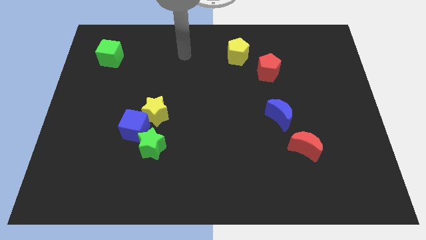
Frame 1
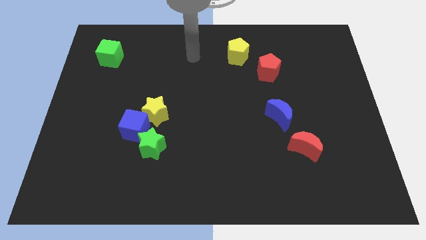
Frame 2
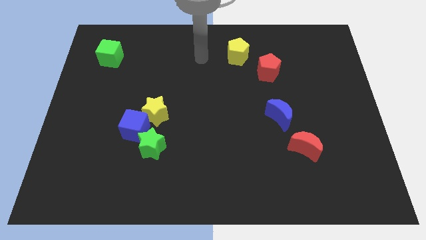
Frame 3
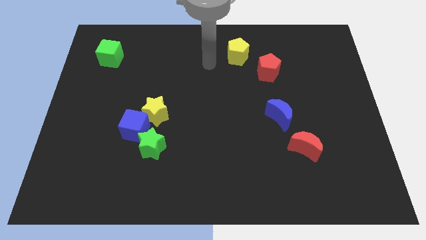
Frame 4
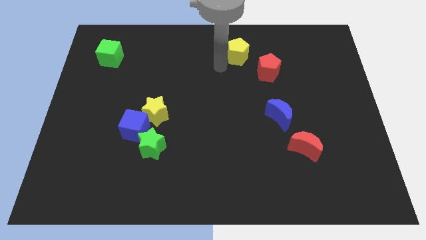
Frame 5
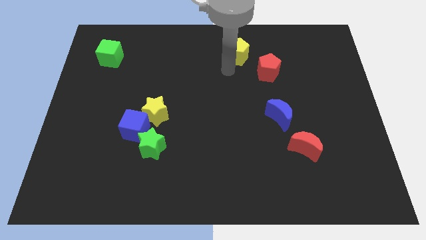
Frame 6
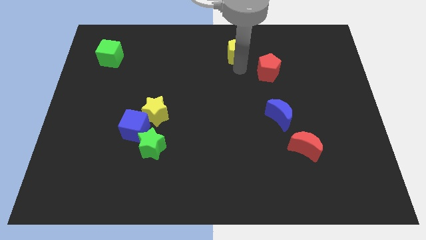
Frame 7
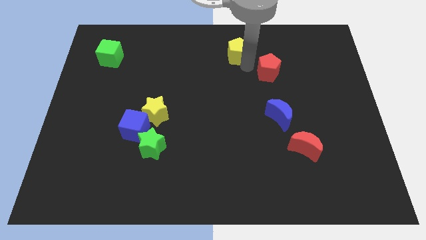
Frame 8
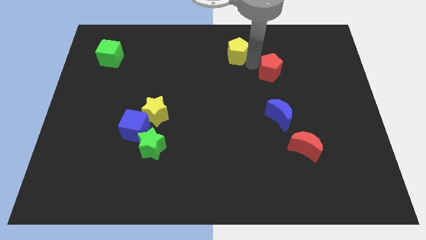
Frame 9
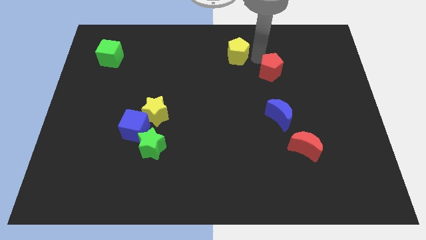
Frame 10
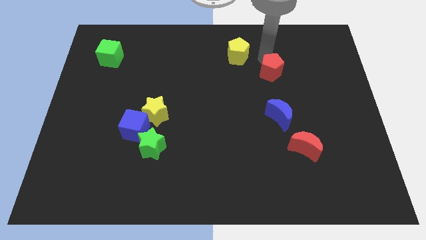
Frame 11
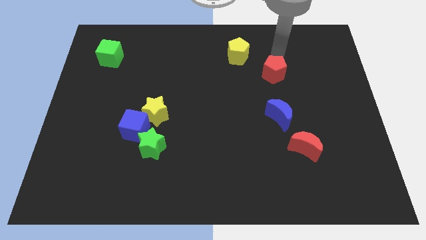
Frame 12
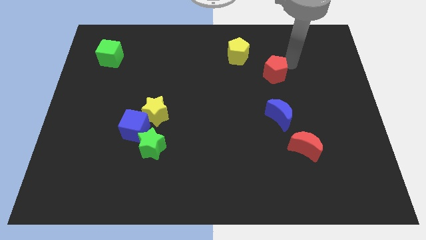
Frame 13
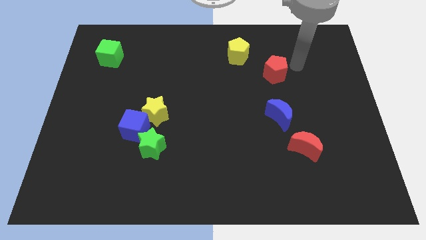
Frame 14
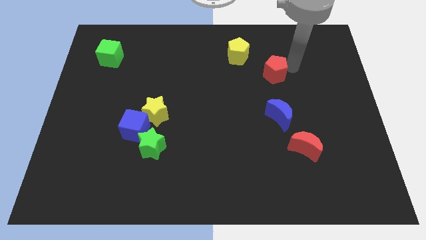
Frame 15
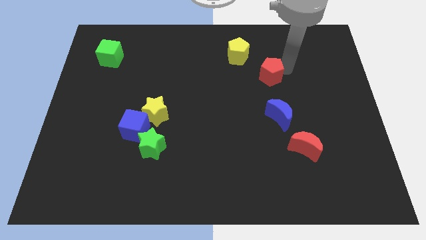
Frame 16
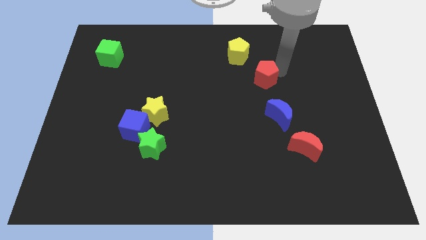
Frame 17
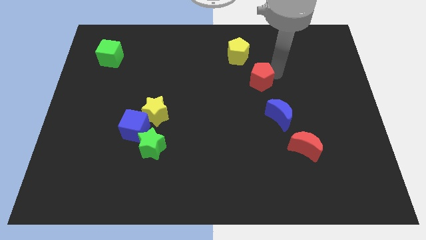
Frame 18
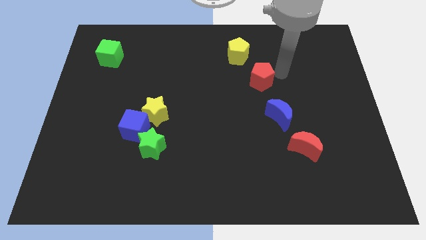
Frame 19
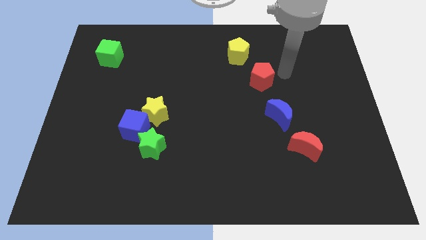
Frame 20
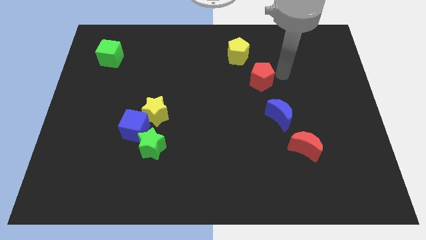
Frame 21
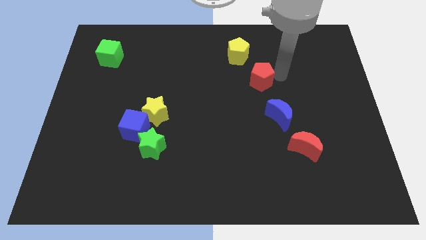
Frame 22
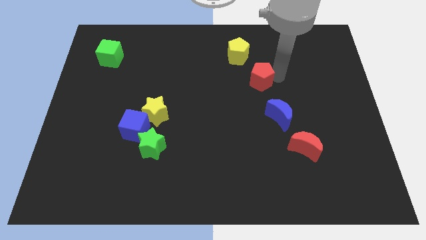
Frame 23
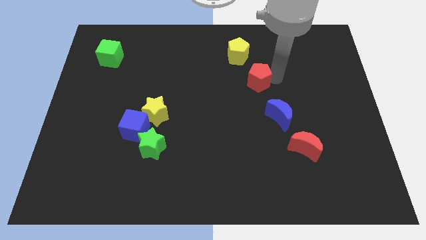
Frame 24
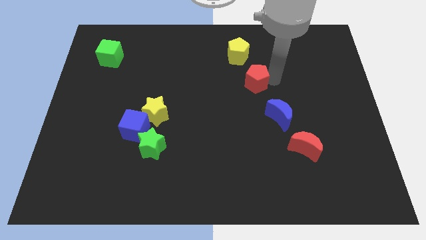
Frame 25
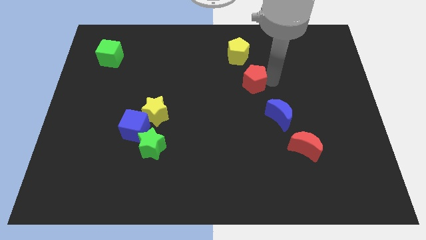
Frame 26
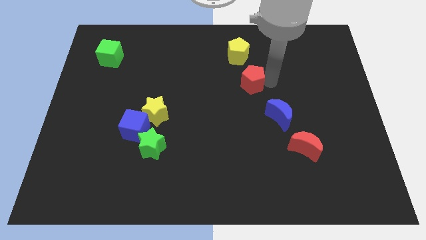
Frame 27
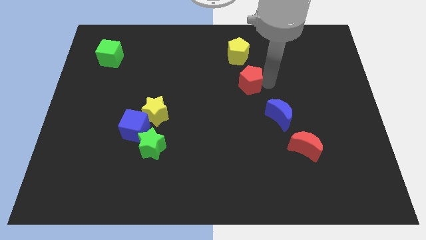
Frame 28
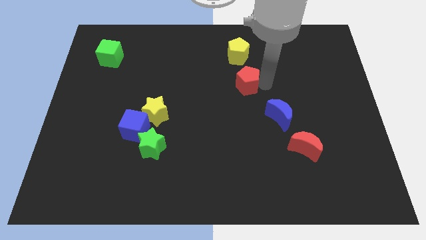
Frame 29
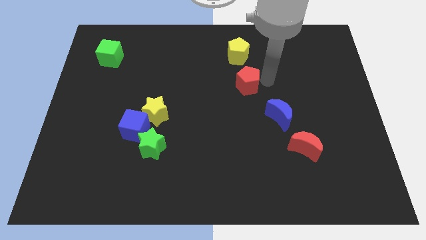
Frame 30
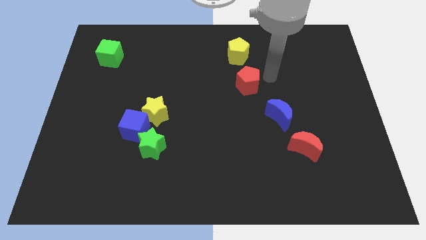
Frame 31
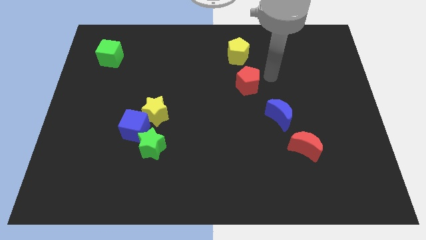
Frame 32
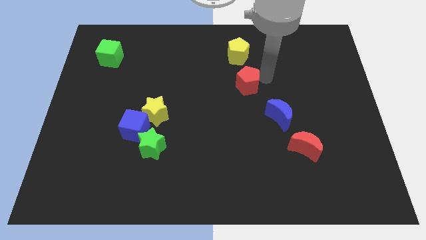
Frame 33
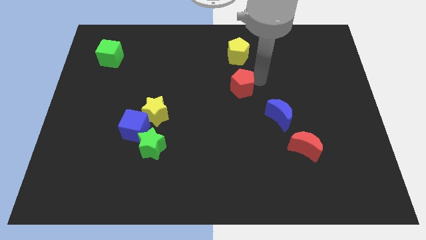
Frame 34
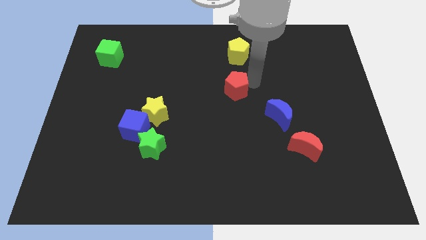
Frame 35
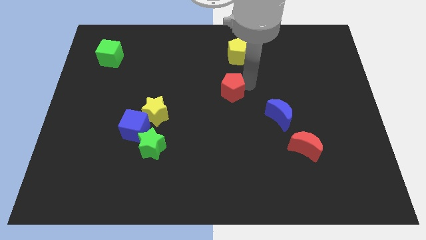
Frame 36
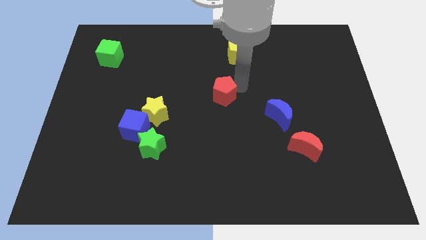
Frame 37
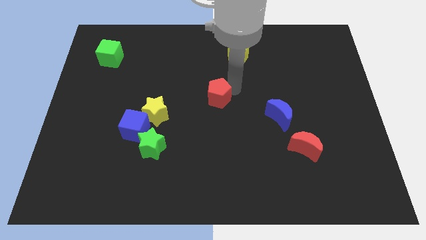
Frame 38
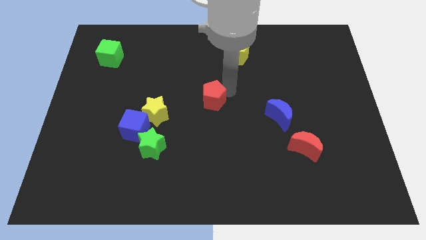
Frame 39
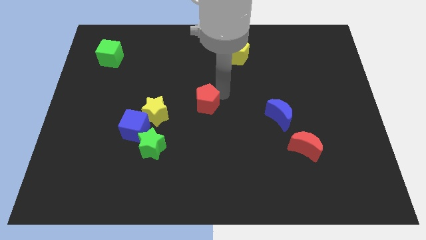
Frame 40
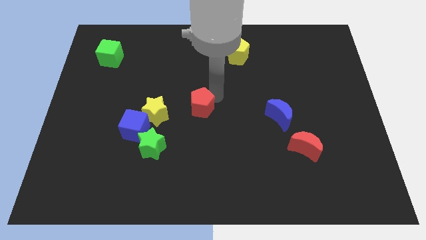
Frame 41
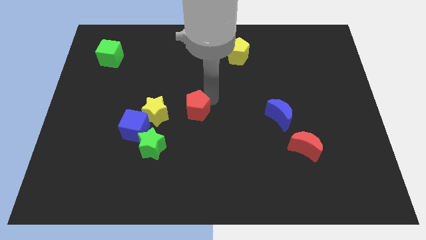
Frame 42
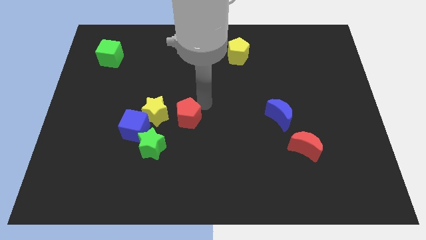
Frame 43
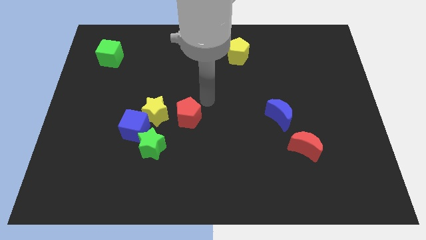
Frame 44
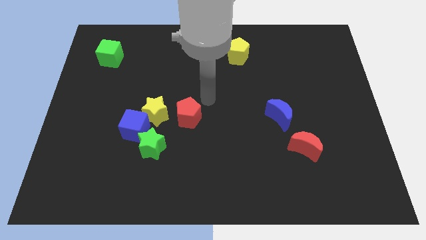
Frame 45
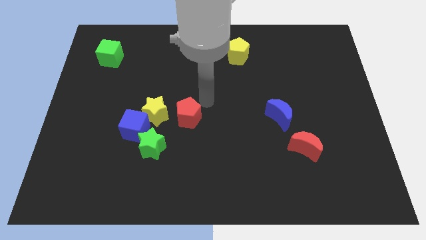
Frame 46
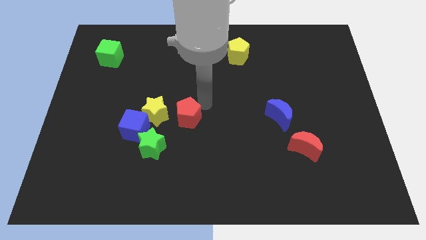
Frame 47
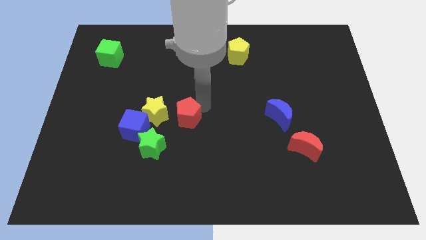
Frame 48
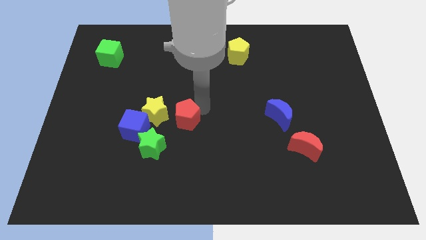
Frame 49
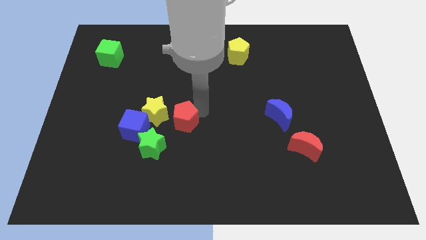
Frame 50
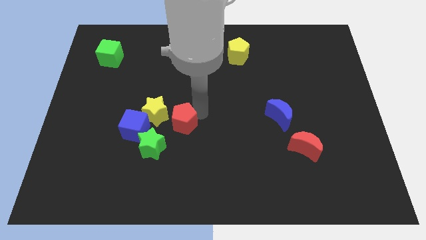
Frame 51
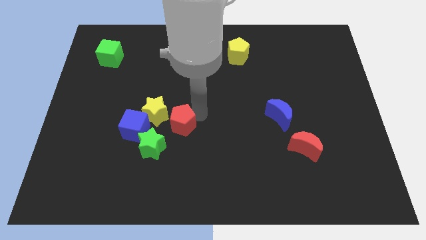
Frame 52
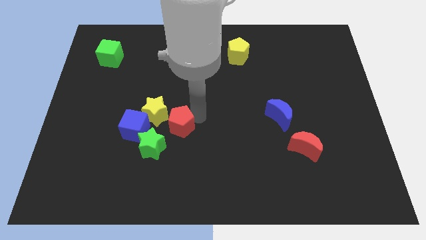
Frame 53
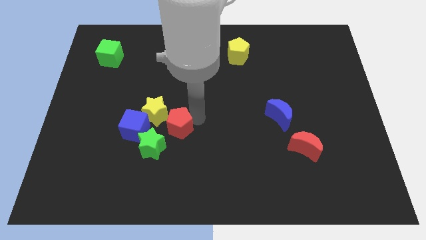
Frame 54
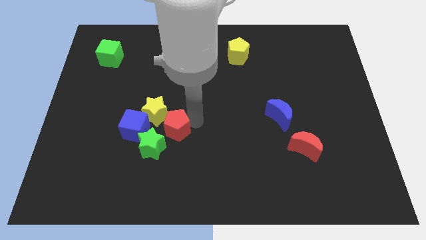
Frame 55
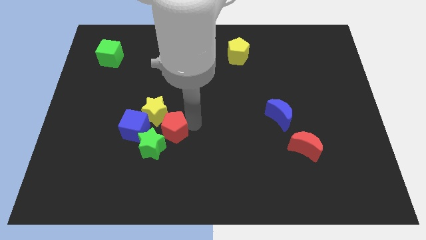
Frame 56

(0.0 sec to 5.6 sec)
put the red pentagon to the green star

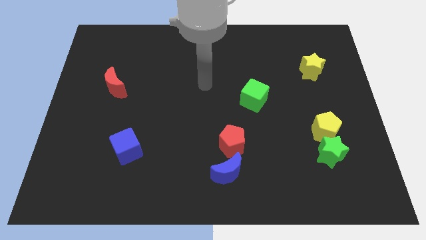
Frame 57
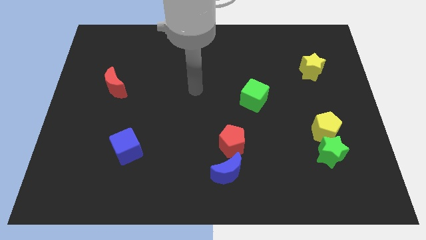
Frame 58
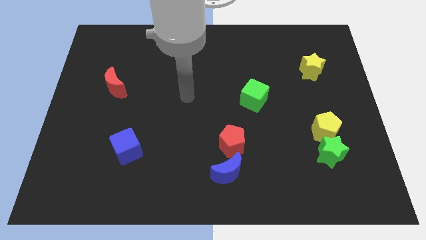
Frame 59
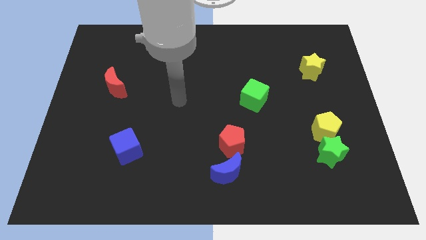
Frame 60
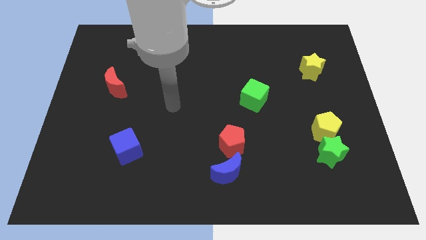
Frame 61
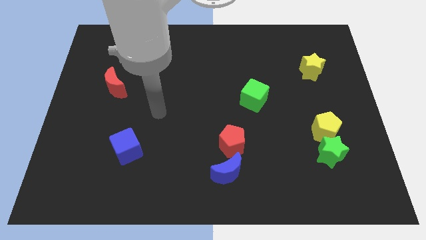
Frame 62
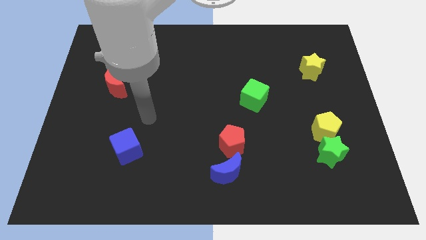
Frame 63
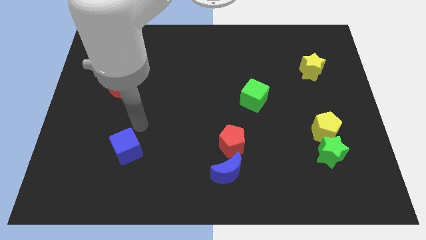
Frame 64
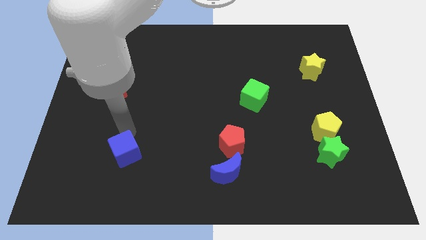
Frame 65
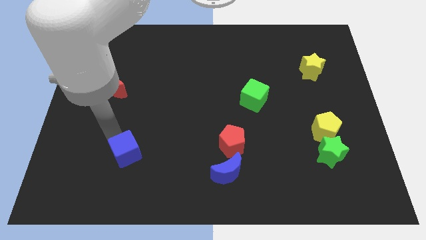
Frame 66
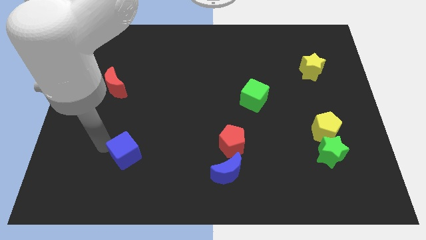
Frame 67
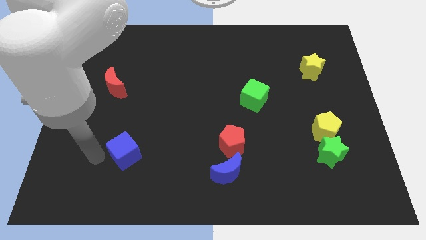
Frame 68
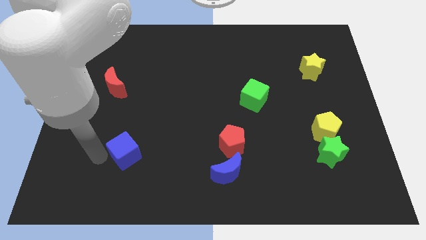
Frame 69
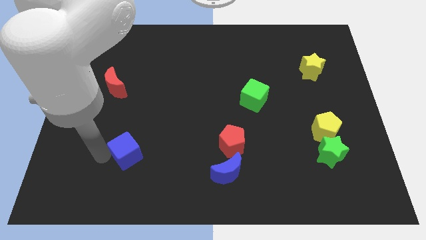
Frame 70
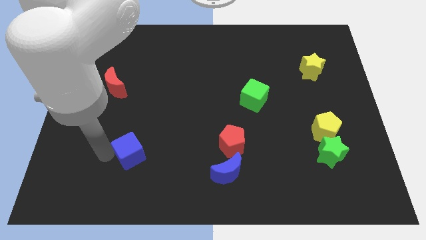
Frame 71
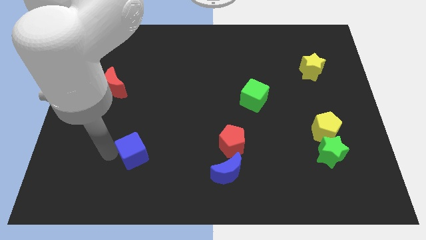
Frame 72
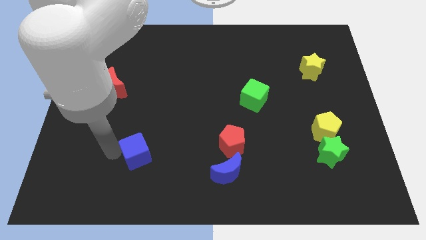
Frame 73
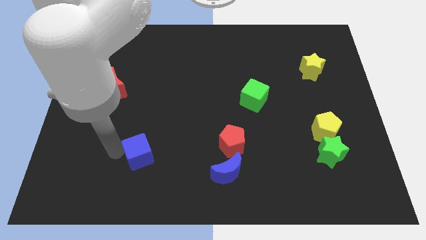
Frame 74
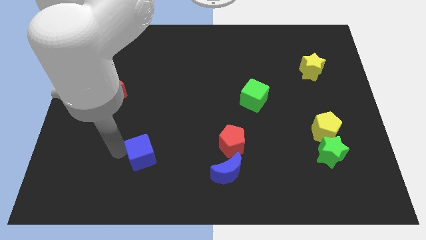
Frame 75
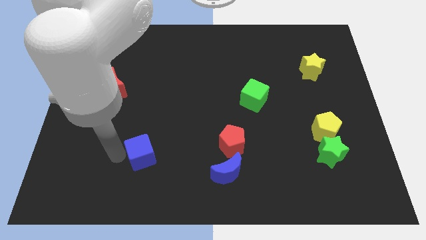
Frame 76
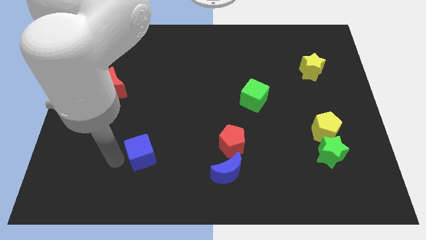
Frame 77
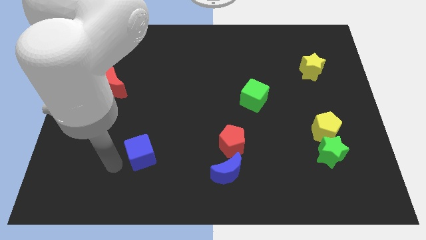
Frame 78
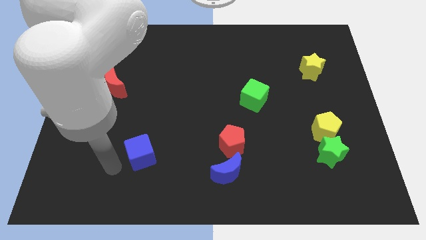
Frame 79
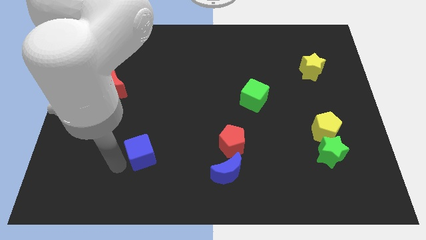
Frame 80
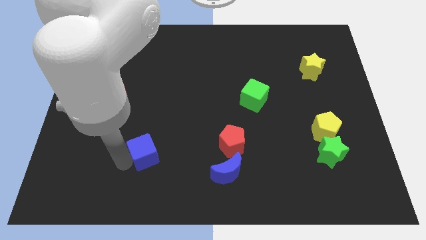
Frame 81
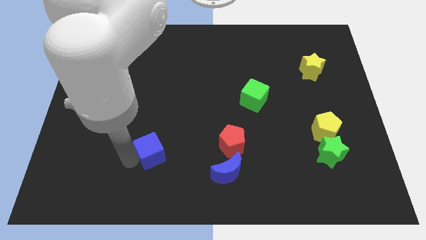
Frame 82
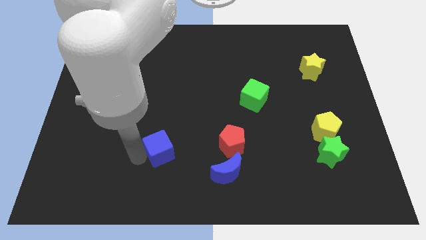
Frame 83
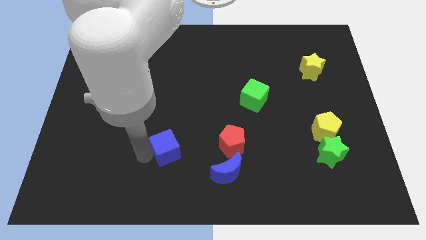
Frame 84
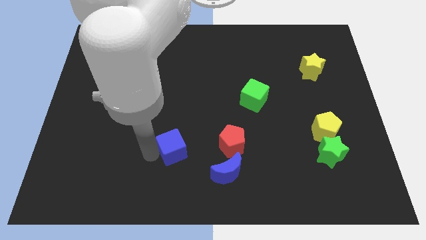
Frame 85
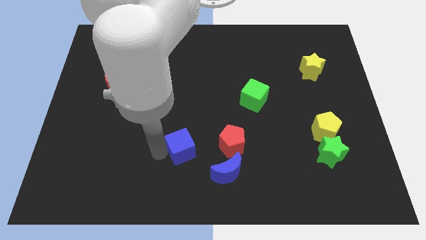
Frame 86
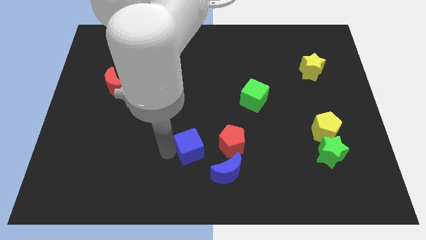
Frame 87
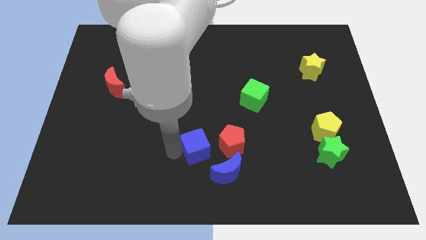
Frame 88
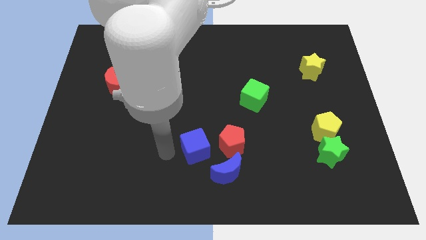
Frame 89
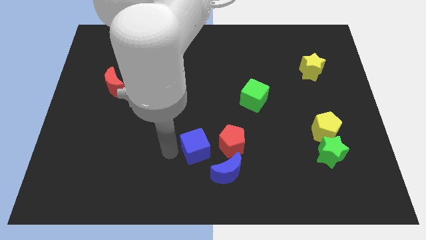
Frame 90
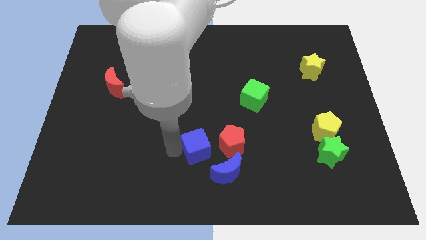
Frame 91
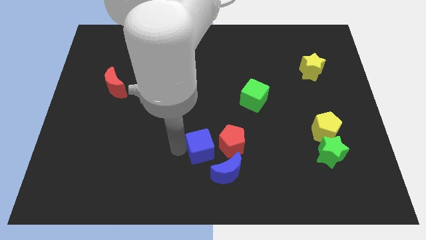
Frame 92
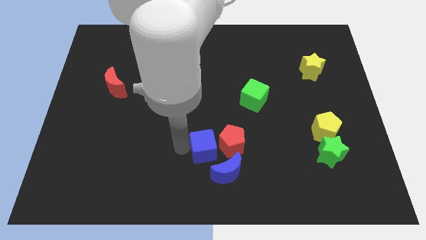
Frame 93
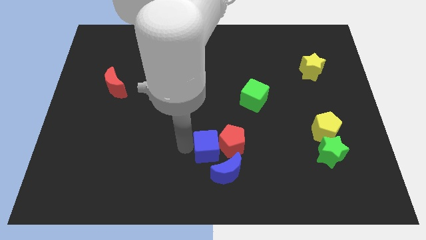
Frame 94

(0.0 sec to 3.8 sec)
put the blue cube next to the red pentagon
